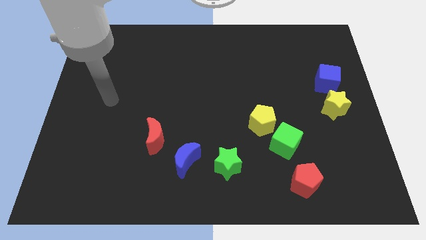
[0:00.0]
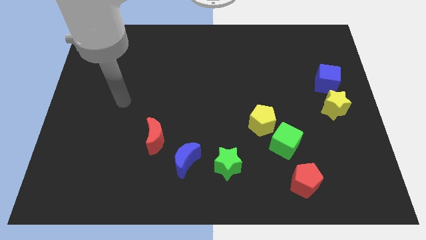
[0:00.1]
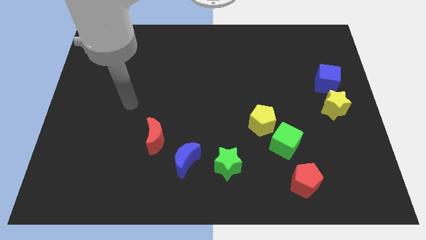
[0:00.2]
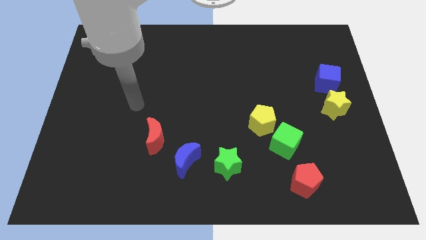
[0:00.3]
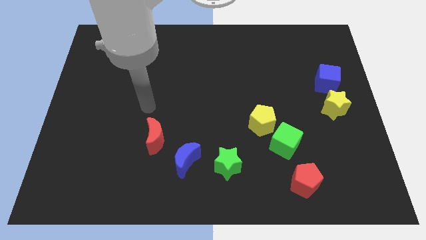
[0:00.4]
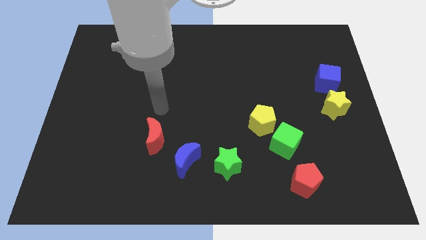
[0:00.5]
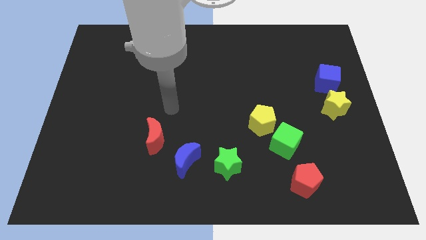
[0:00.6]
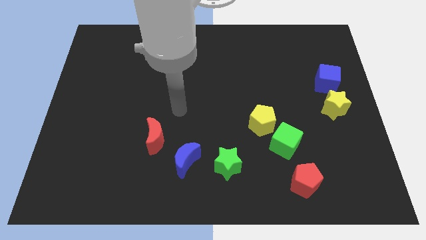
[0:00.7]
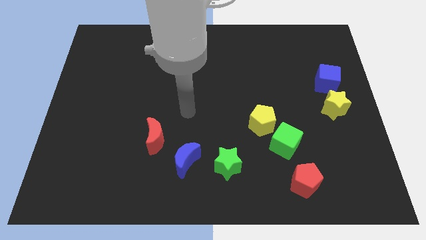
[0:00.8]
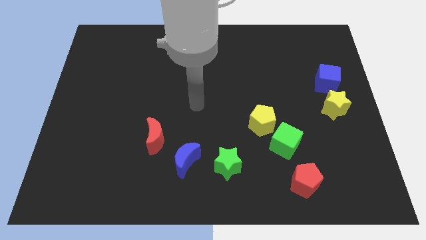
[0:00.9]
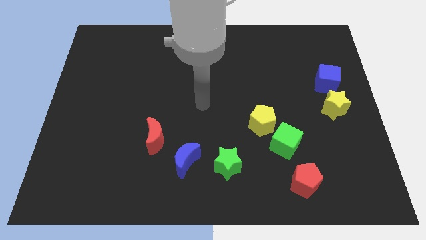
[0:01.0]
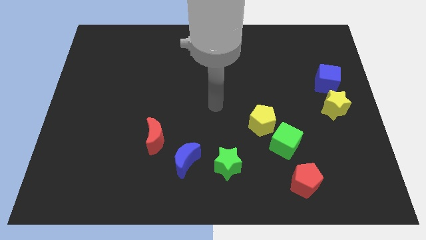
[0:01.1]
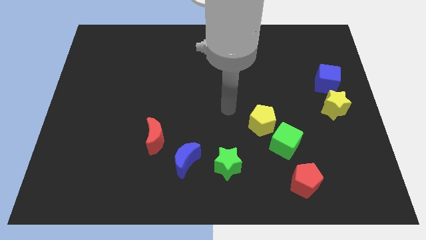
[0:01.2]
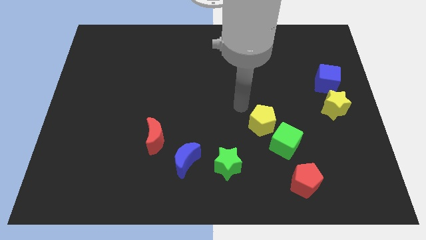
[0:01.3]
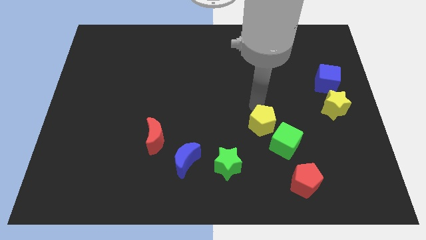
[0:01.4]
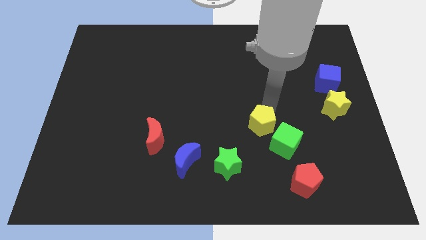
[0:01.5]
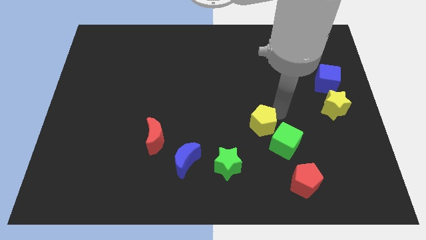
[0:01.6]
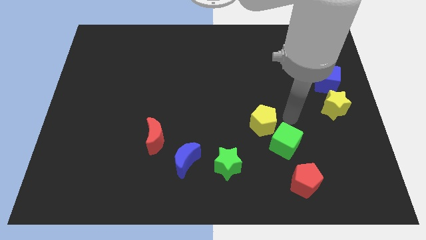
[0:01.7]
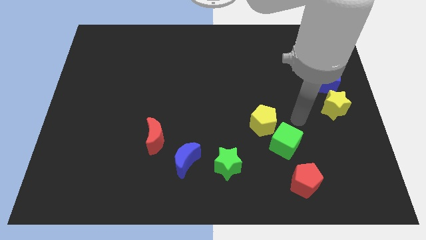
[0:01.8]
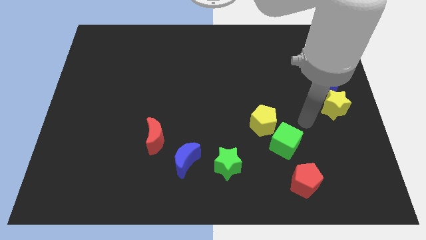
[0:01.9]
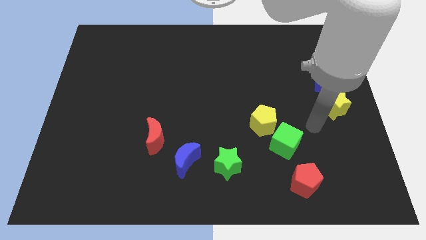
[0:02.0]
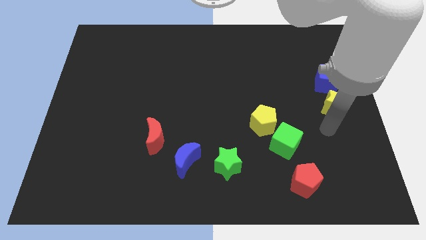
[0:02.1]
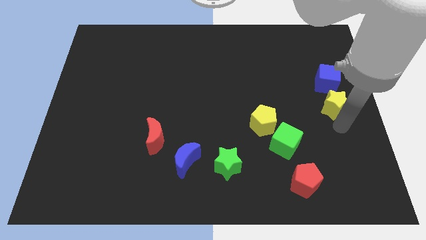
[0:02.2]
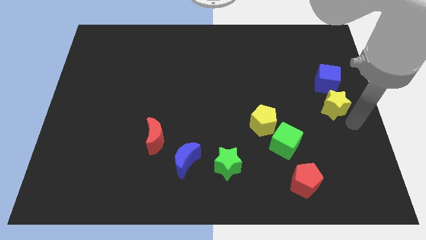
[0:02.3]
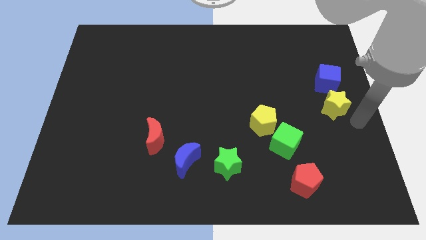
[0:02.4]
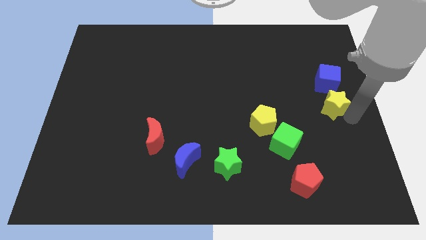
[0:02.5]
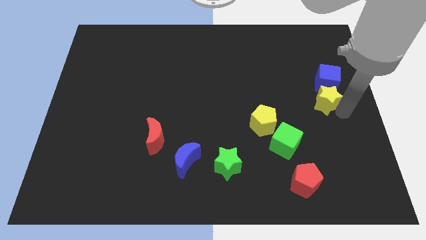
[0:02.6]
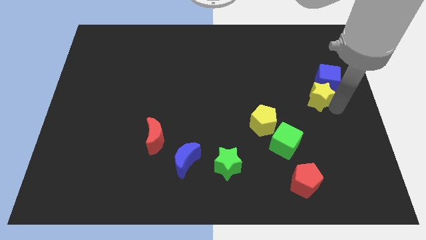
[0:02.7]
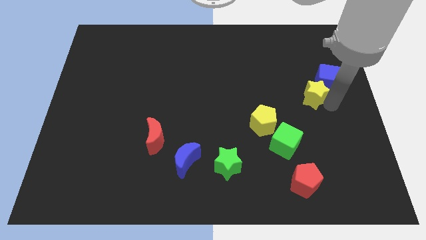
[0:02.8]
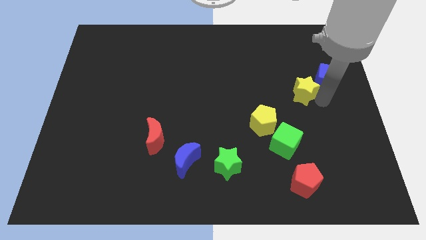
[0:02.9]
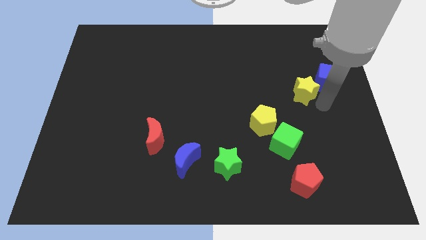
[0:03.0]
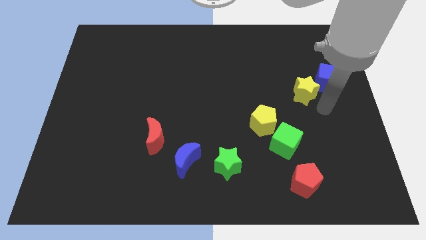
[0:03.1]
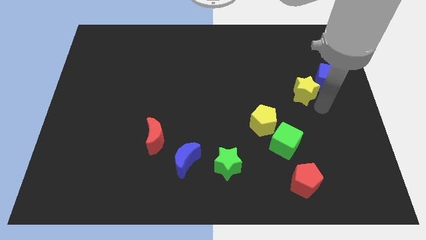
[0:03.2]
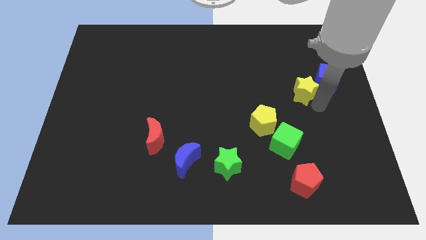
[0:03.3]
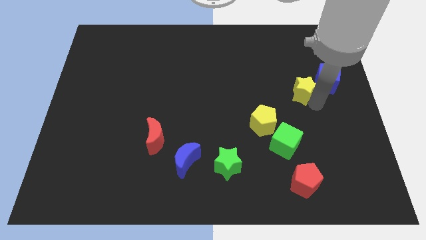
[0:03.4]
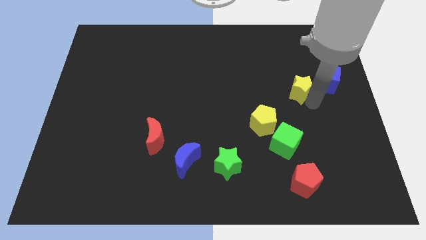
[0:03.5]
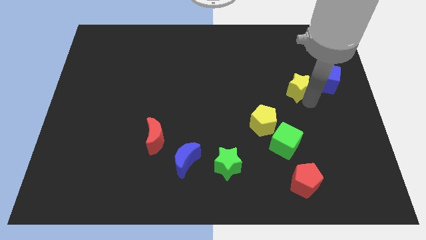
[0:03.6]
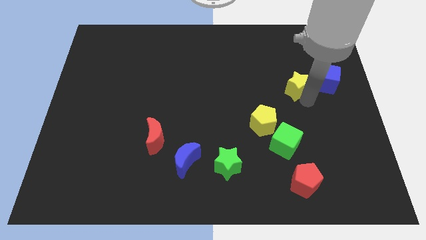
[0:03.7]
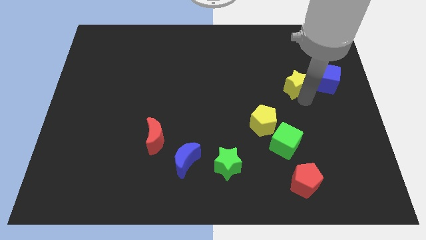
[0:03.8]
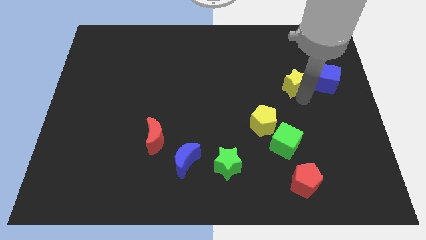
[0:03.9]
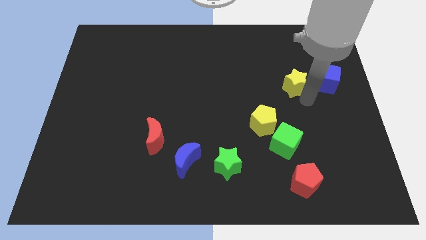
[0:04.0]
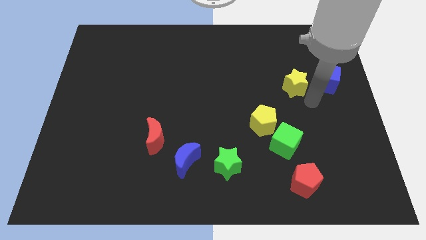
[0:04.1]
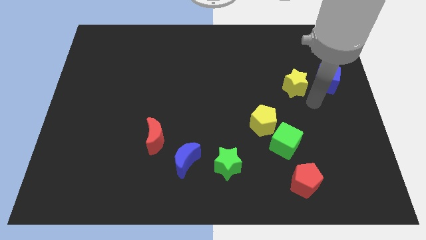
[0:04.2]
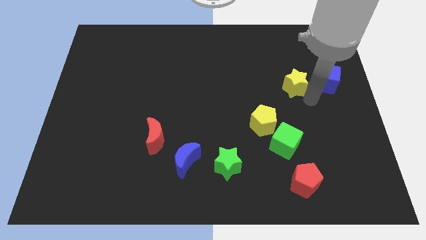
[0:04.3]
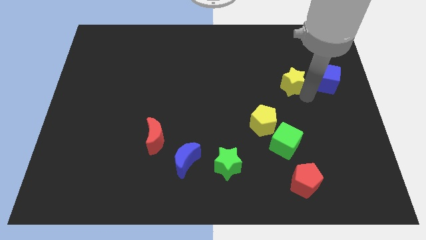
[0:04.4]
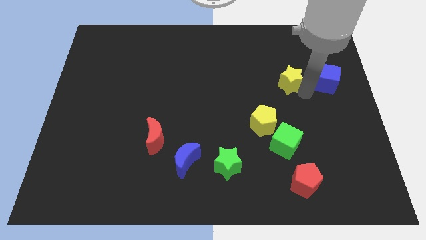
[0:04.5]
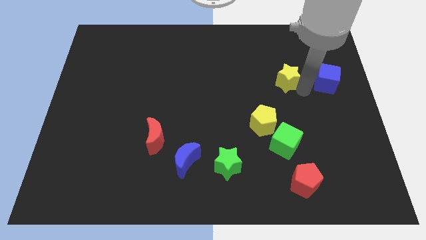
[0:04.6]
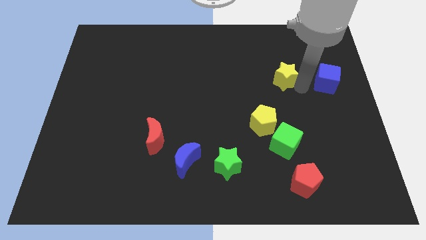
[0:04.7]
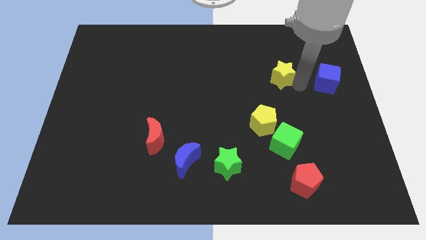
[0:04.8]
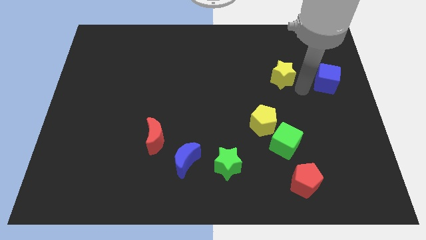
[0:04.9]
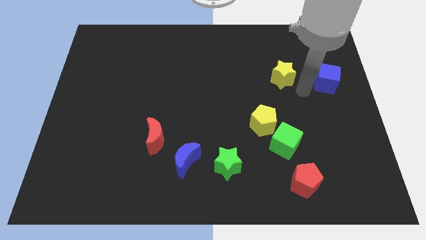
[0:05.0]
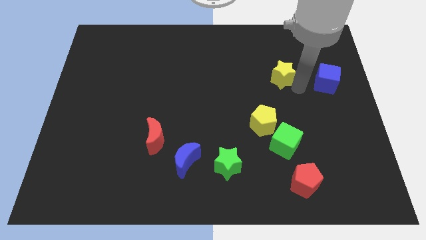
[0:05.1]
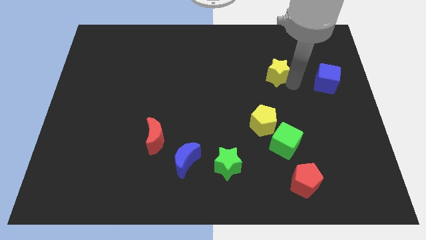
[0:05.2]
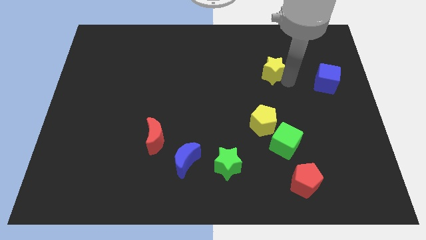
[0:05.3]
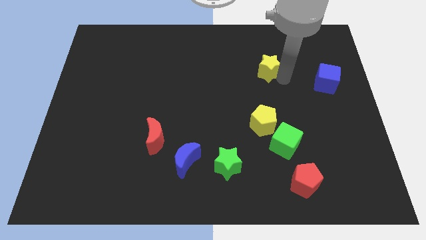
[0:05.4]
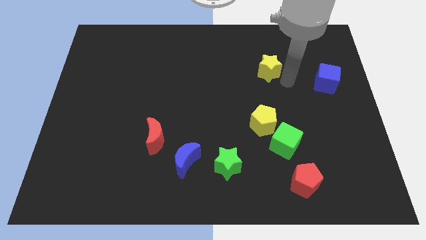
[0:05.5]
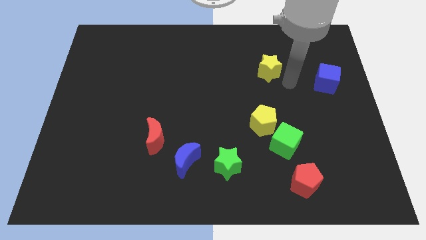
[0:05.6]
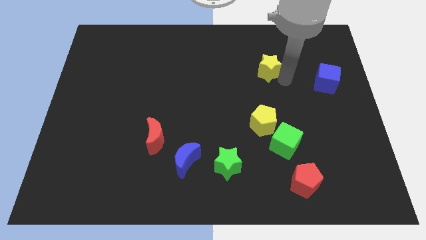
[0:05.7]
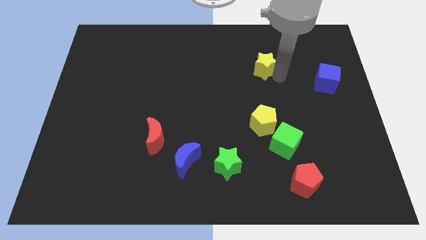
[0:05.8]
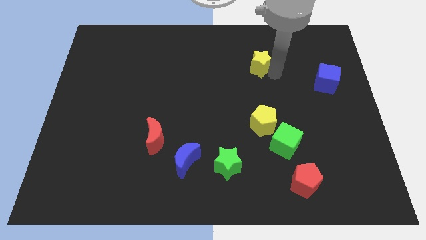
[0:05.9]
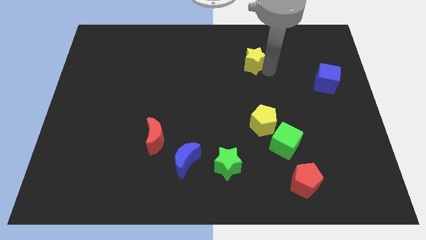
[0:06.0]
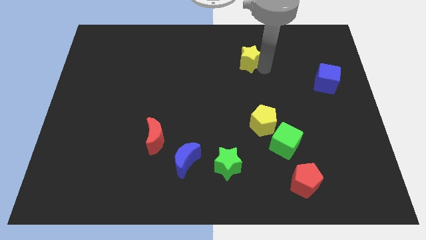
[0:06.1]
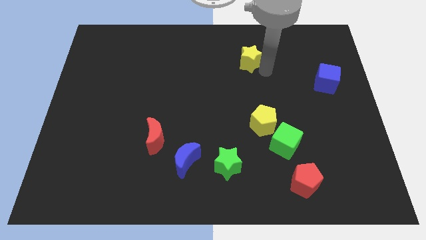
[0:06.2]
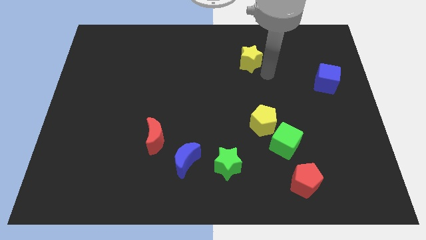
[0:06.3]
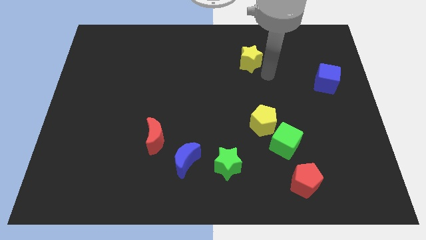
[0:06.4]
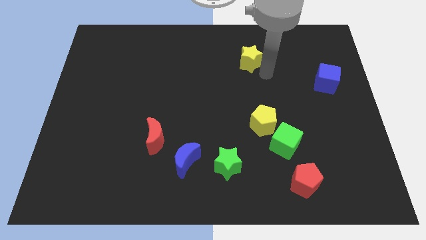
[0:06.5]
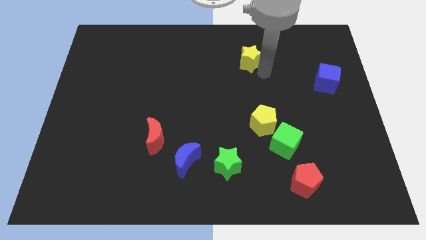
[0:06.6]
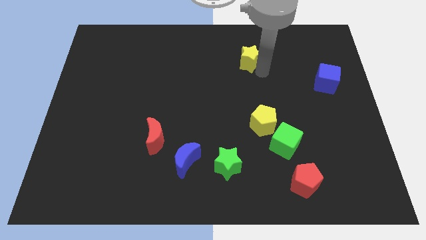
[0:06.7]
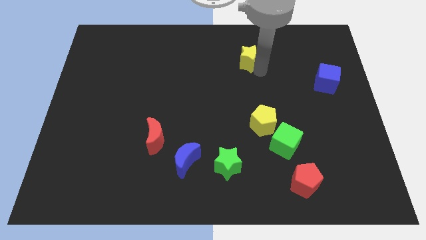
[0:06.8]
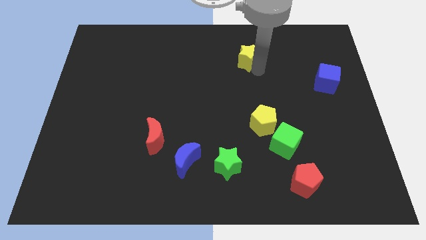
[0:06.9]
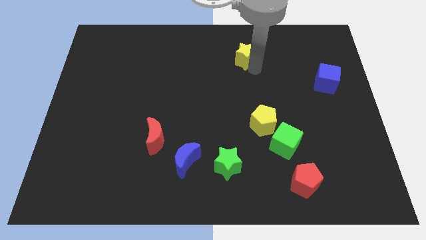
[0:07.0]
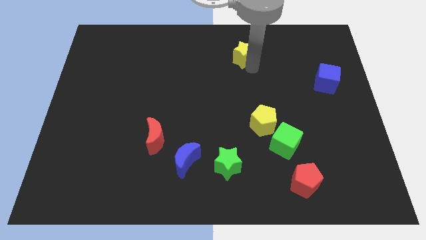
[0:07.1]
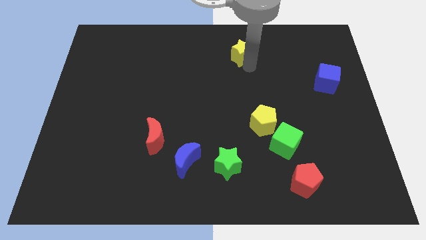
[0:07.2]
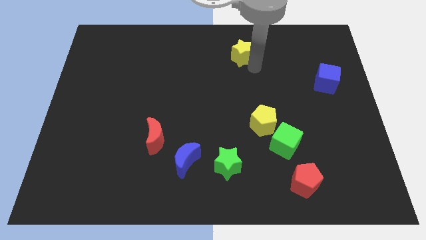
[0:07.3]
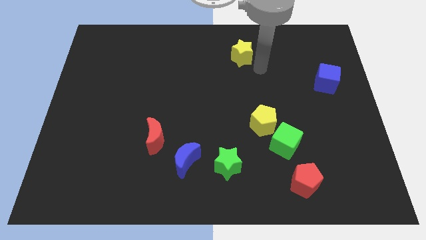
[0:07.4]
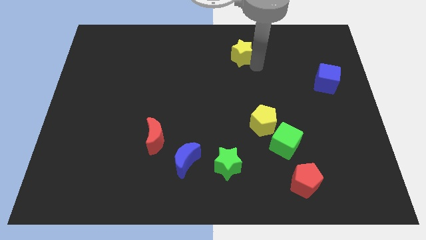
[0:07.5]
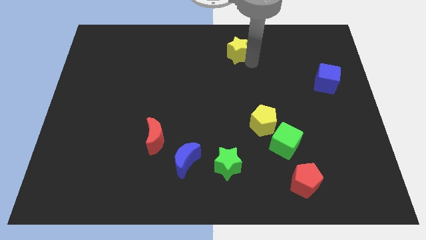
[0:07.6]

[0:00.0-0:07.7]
put the yellow star to the towards your base
